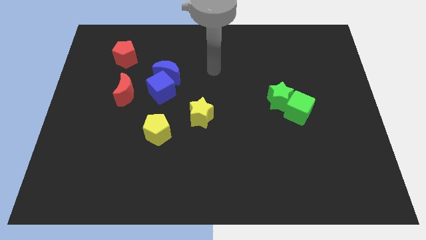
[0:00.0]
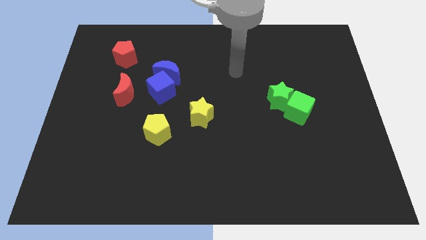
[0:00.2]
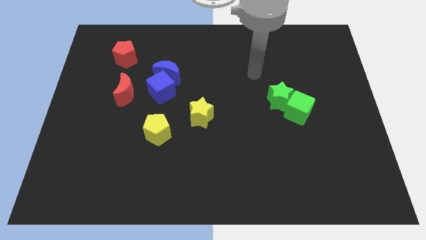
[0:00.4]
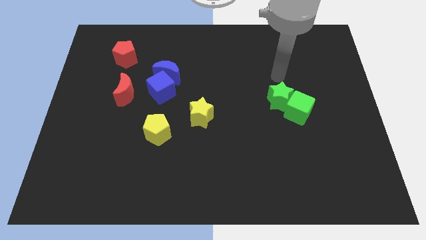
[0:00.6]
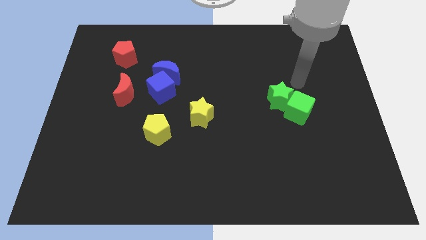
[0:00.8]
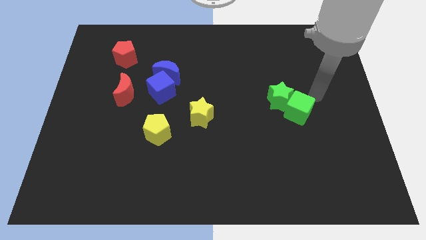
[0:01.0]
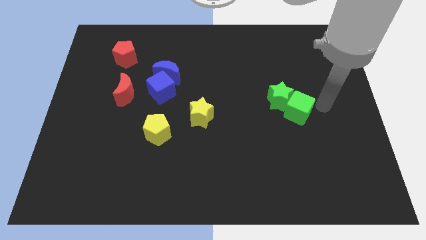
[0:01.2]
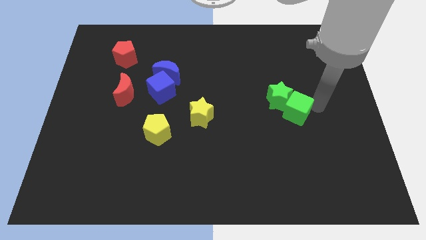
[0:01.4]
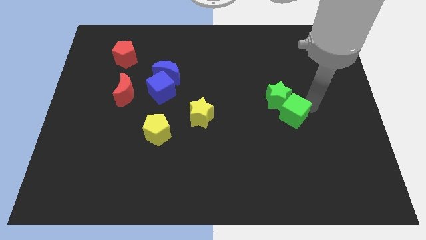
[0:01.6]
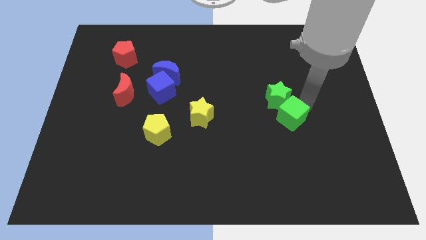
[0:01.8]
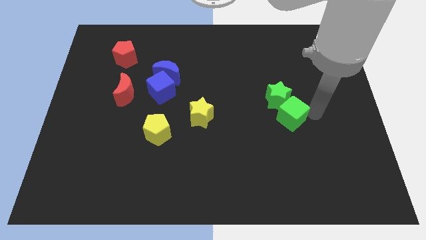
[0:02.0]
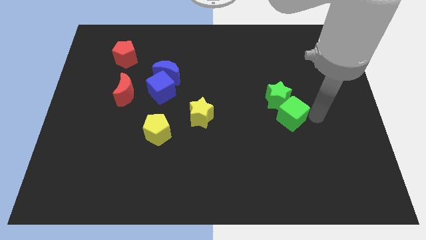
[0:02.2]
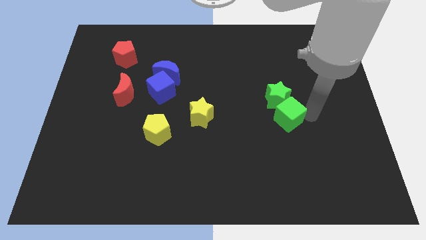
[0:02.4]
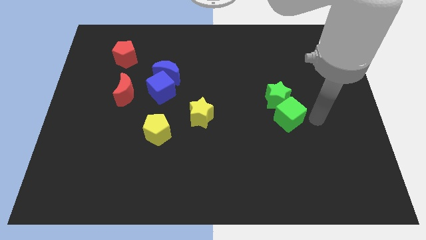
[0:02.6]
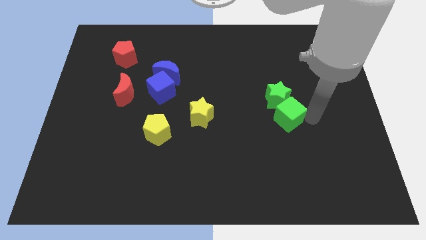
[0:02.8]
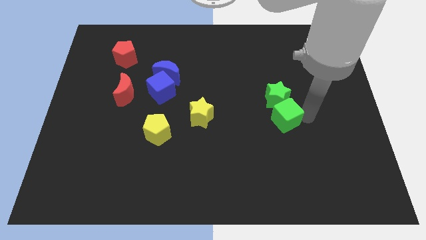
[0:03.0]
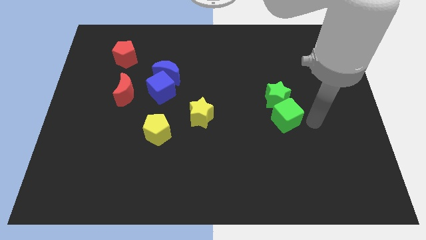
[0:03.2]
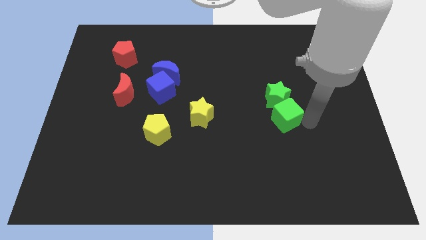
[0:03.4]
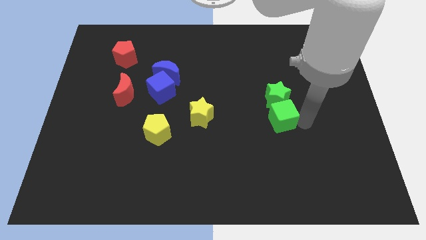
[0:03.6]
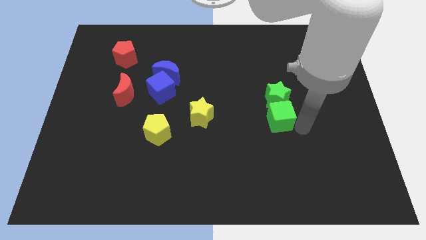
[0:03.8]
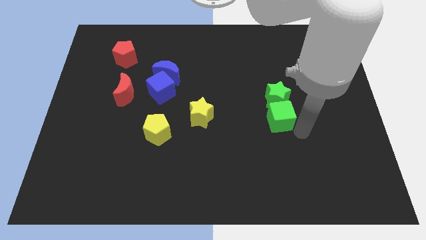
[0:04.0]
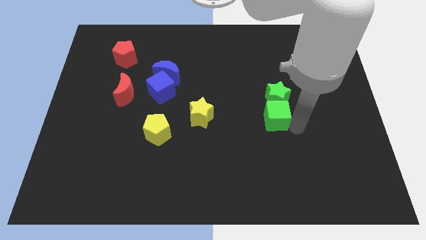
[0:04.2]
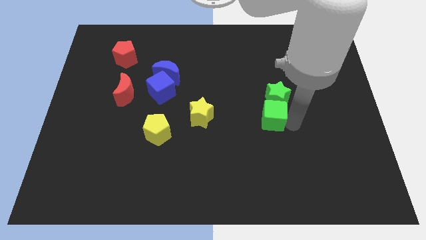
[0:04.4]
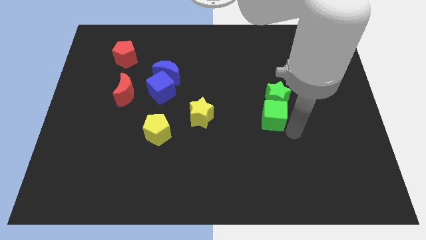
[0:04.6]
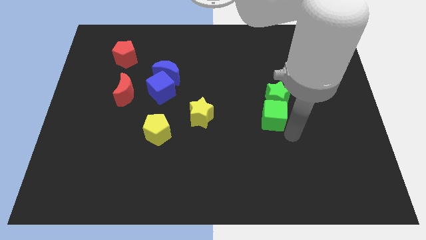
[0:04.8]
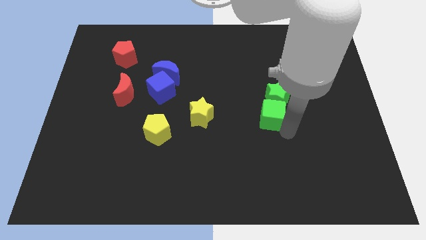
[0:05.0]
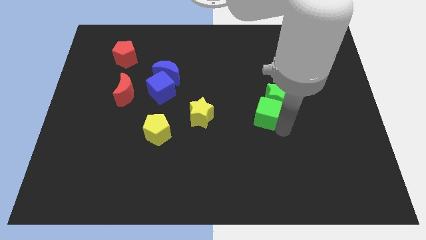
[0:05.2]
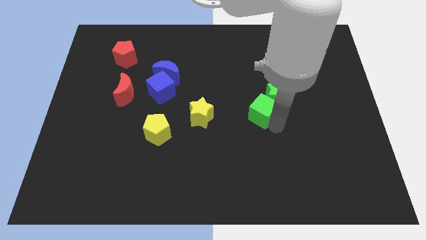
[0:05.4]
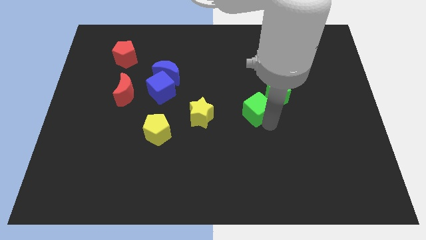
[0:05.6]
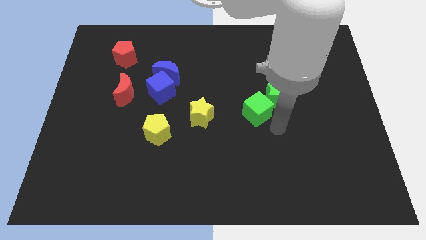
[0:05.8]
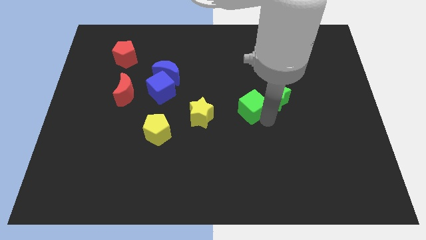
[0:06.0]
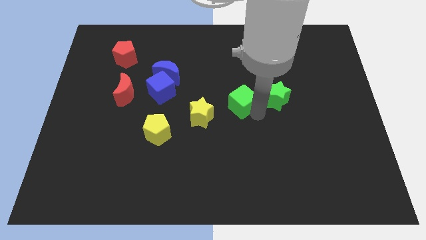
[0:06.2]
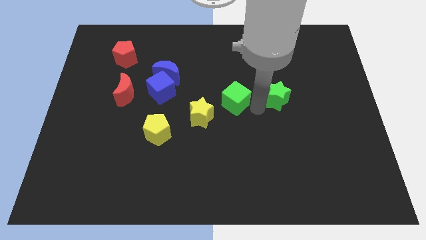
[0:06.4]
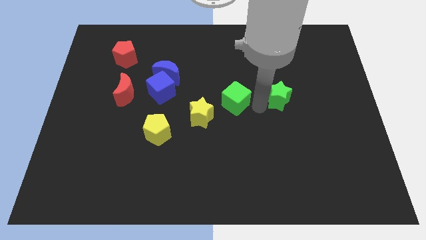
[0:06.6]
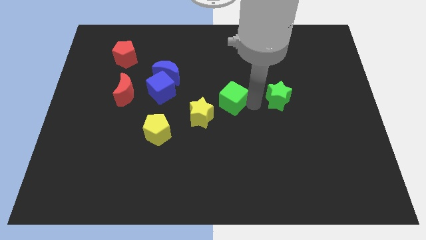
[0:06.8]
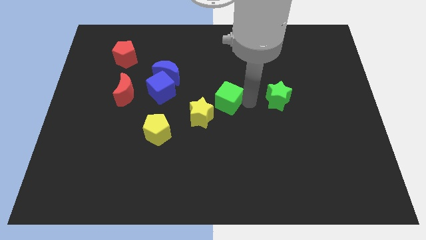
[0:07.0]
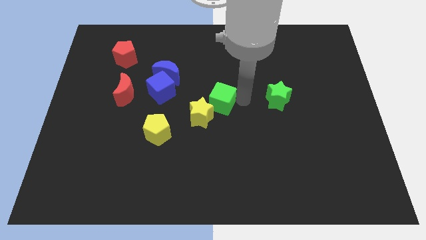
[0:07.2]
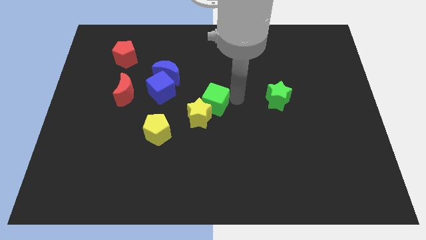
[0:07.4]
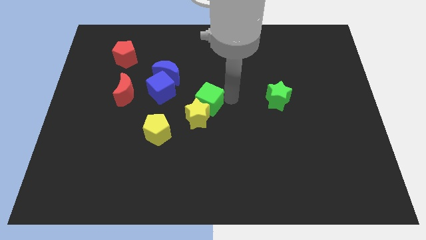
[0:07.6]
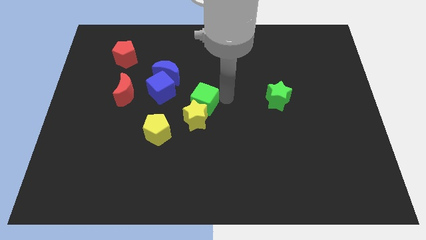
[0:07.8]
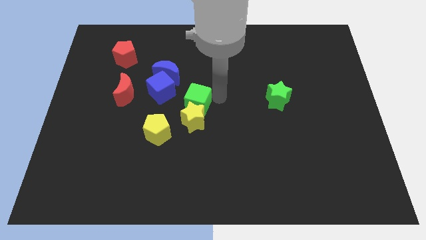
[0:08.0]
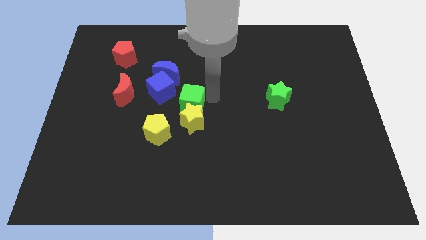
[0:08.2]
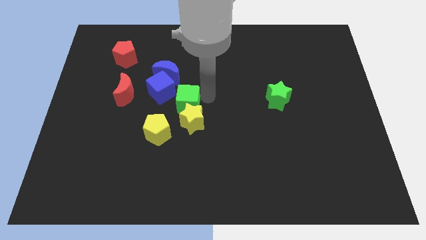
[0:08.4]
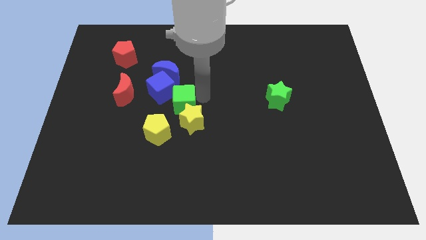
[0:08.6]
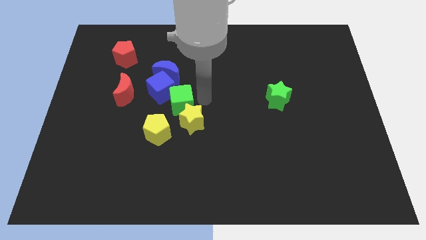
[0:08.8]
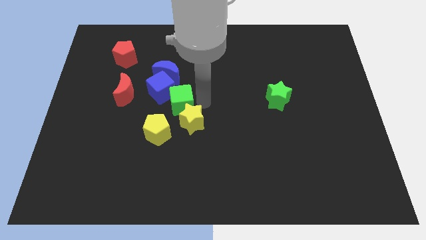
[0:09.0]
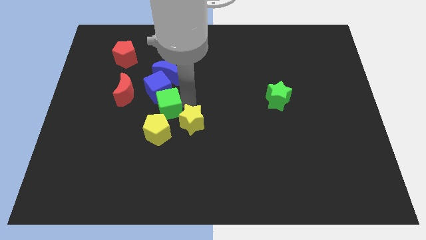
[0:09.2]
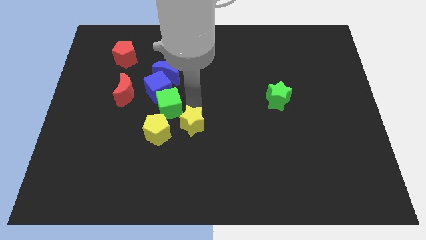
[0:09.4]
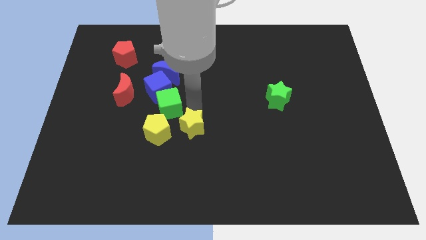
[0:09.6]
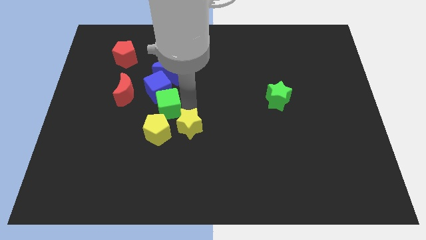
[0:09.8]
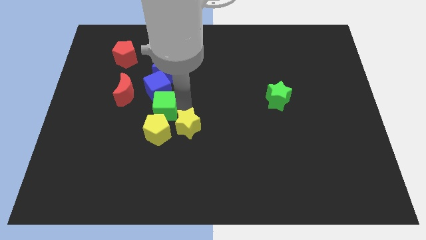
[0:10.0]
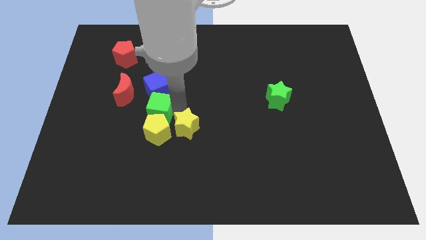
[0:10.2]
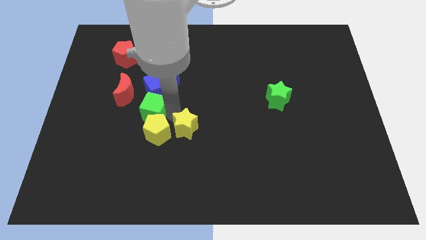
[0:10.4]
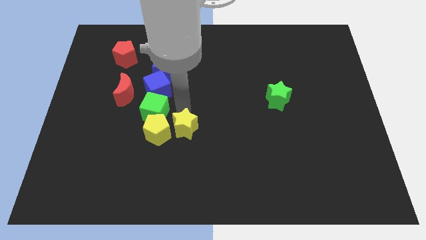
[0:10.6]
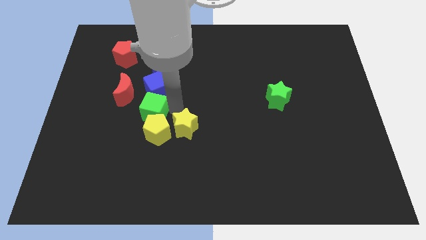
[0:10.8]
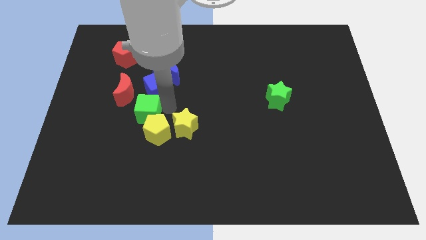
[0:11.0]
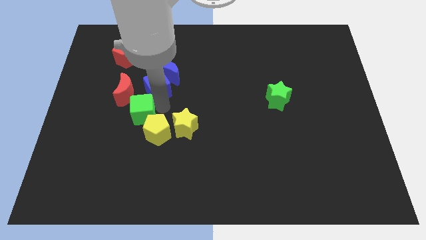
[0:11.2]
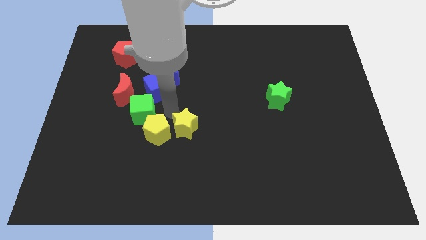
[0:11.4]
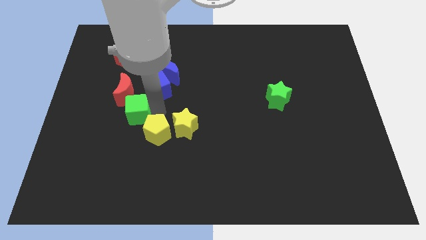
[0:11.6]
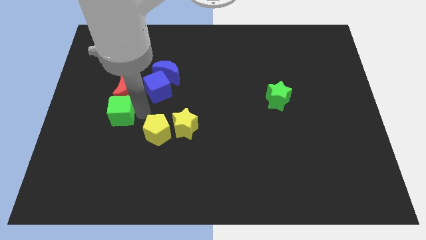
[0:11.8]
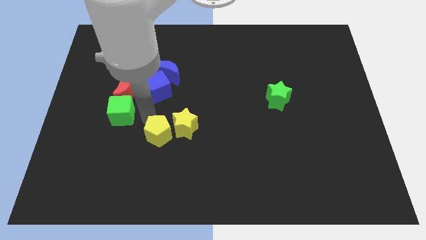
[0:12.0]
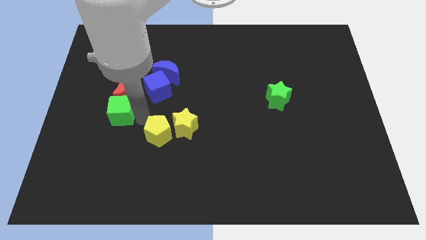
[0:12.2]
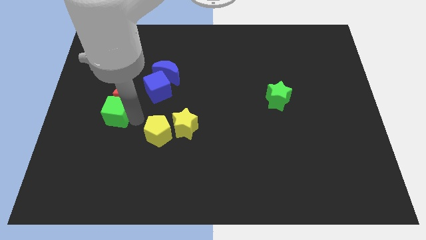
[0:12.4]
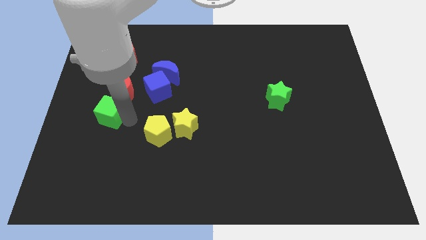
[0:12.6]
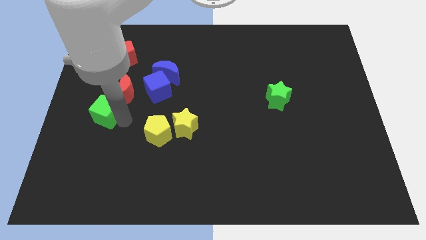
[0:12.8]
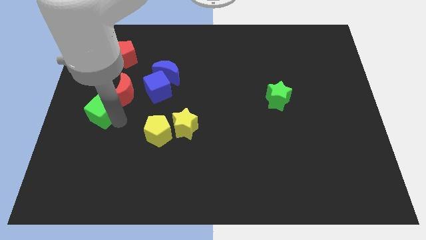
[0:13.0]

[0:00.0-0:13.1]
slide the green cube to the left side of the board
